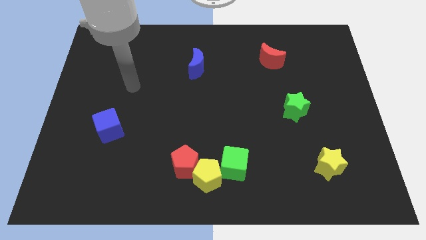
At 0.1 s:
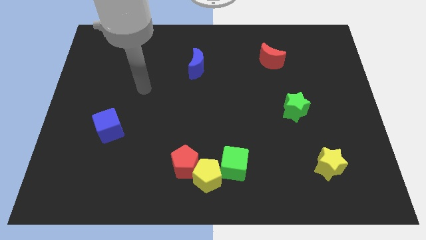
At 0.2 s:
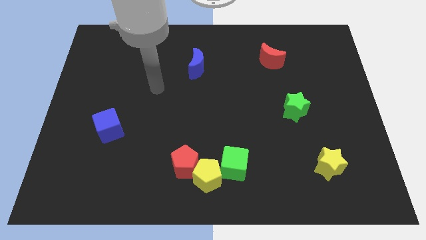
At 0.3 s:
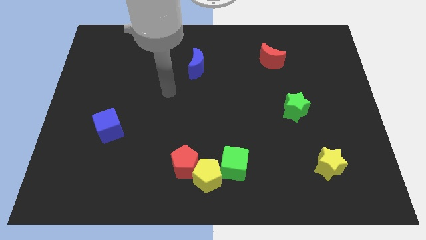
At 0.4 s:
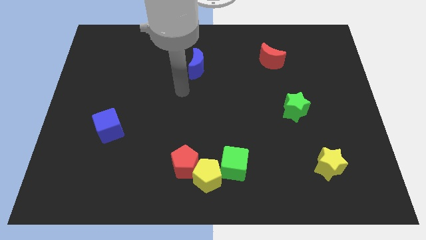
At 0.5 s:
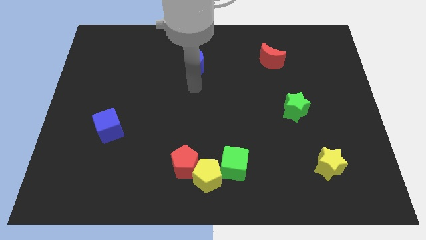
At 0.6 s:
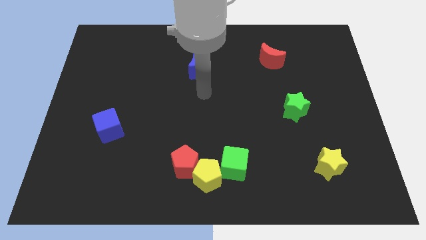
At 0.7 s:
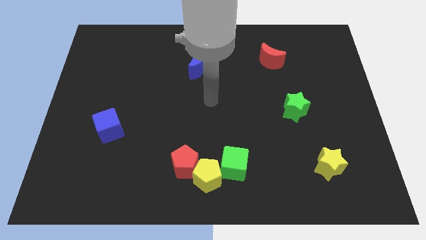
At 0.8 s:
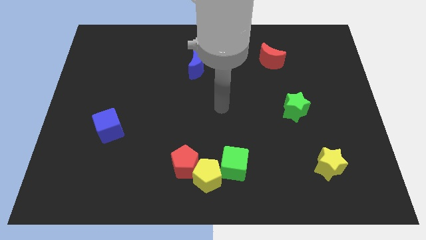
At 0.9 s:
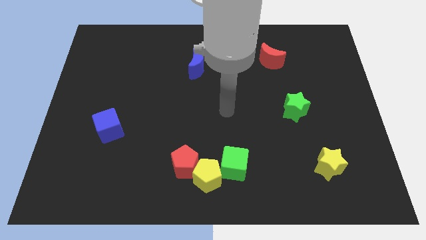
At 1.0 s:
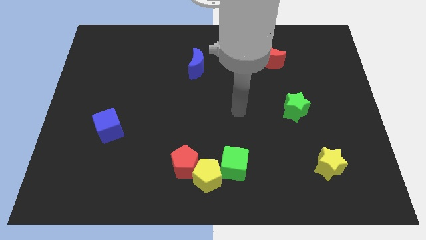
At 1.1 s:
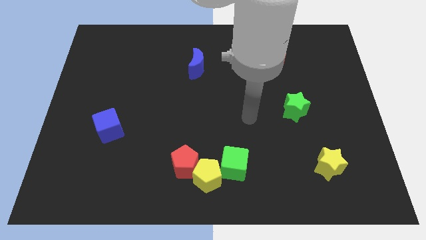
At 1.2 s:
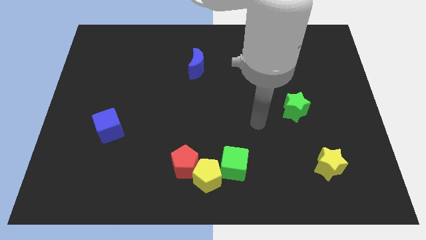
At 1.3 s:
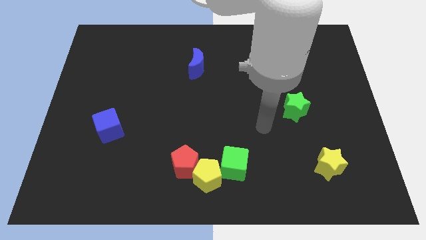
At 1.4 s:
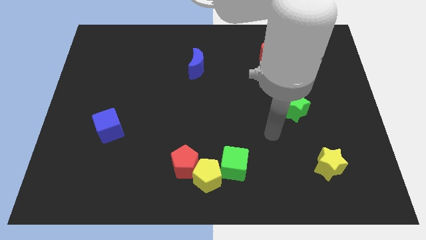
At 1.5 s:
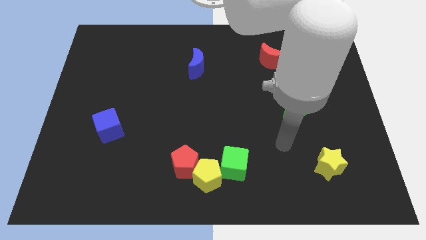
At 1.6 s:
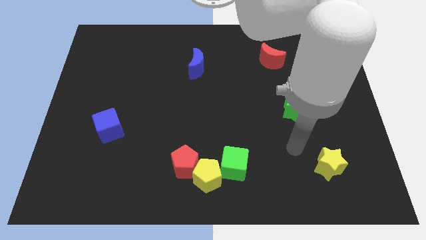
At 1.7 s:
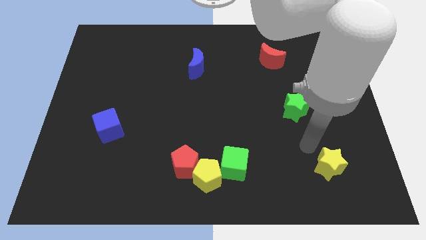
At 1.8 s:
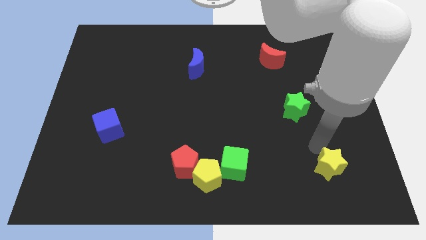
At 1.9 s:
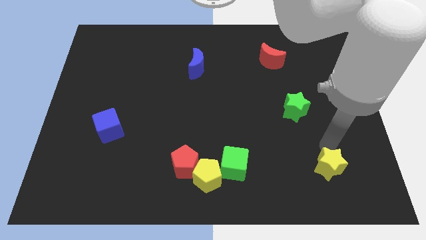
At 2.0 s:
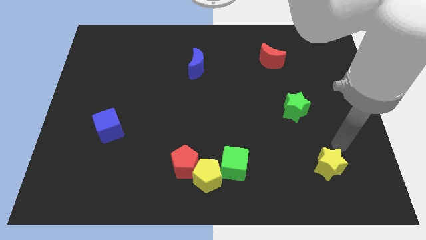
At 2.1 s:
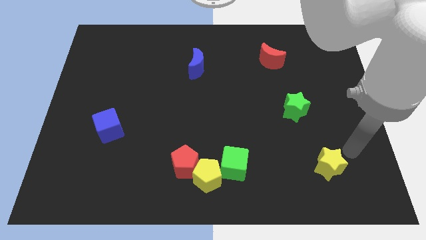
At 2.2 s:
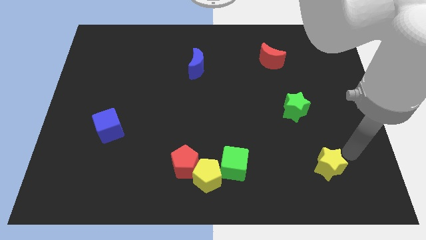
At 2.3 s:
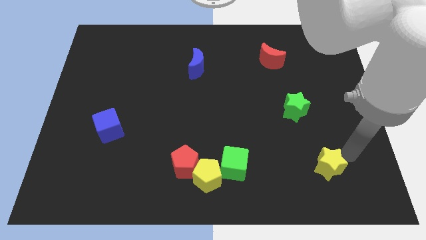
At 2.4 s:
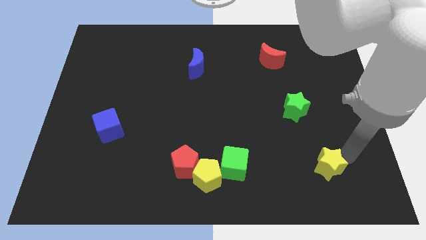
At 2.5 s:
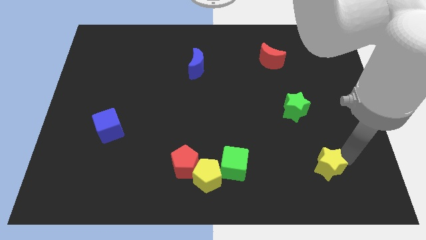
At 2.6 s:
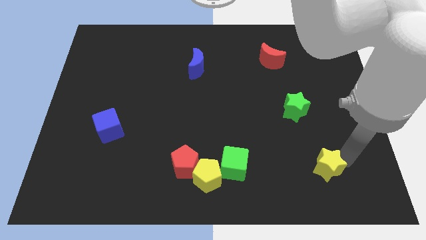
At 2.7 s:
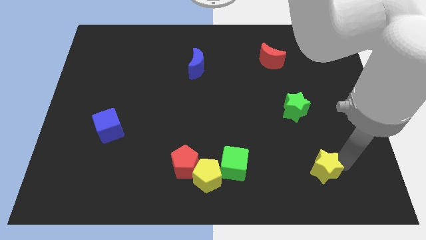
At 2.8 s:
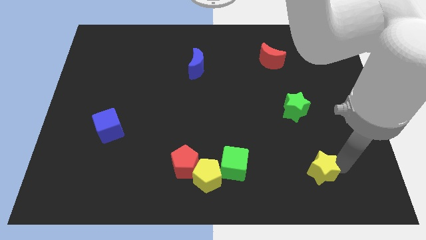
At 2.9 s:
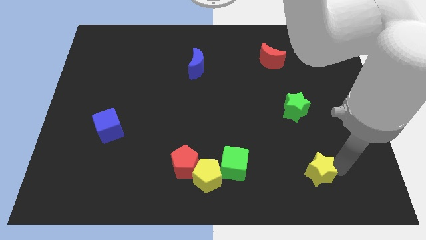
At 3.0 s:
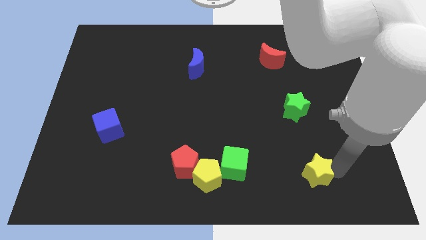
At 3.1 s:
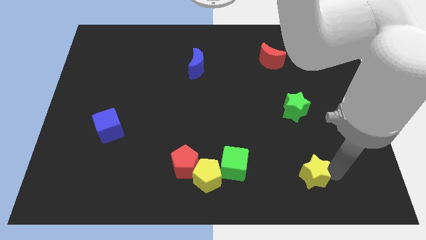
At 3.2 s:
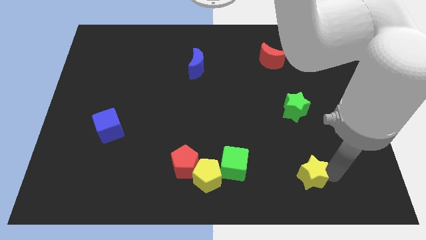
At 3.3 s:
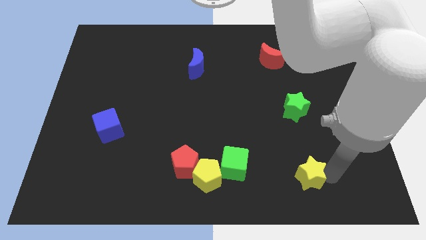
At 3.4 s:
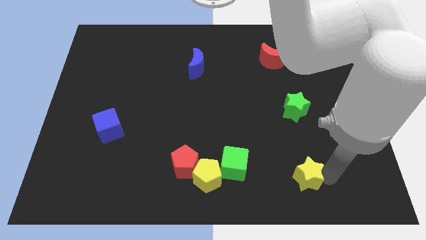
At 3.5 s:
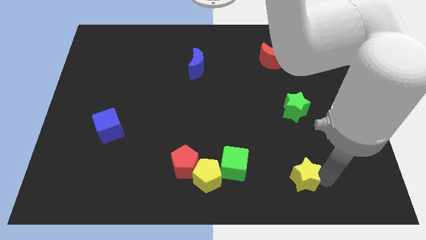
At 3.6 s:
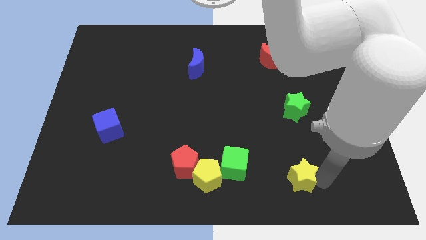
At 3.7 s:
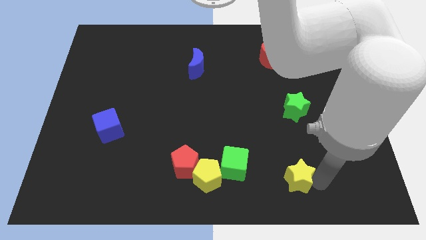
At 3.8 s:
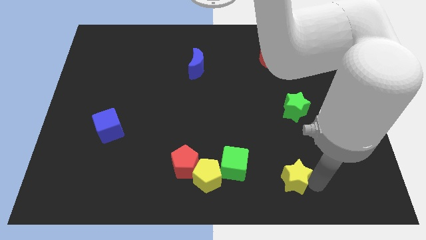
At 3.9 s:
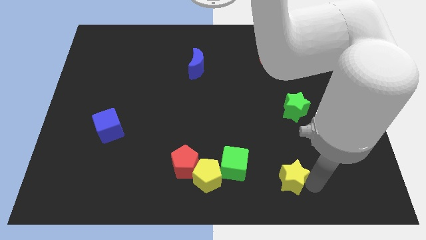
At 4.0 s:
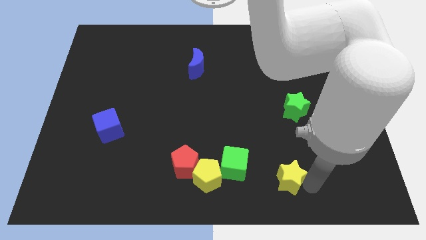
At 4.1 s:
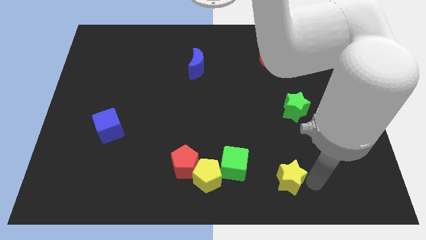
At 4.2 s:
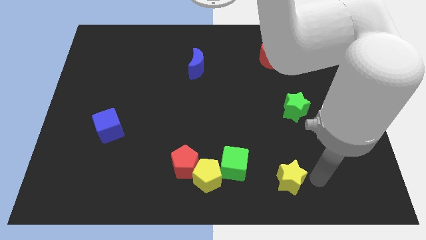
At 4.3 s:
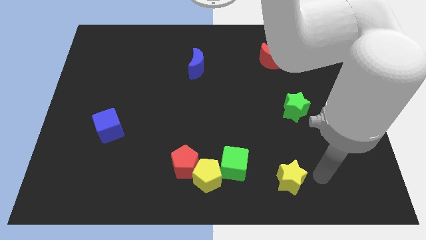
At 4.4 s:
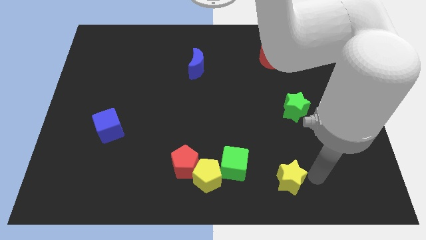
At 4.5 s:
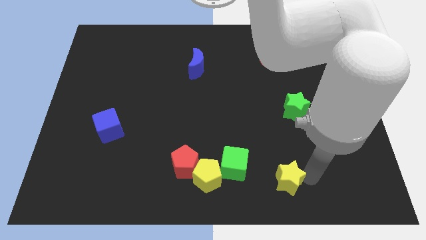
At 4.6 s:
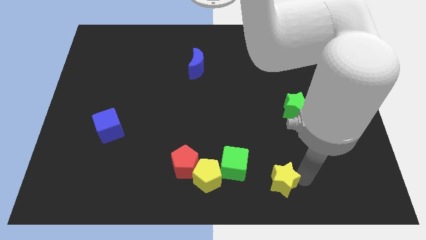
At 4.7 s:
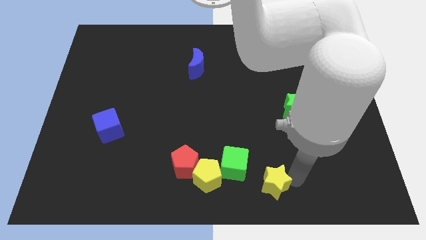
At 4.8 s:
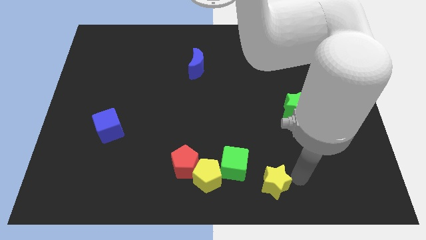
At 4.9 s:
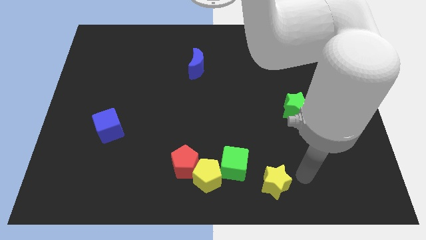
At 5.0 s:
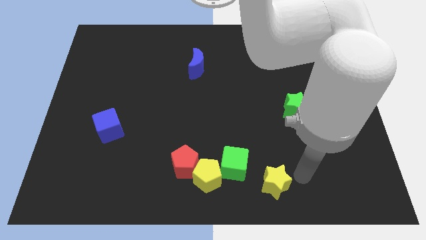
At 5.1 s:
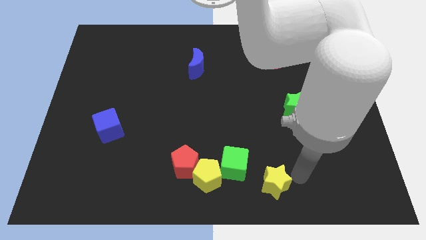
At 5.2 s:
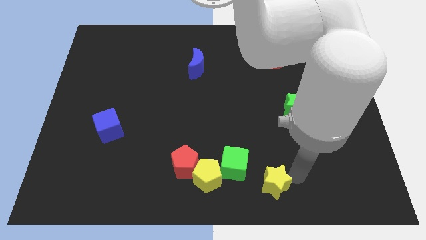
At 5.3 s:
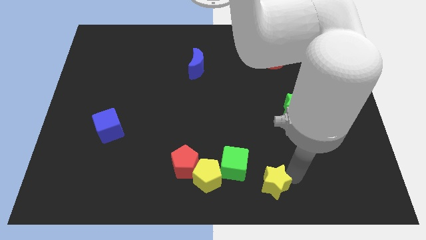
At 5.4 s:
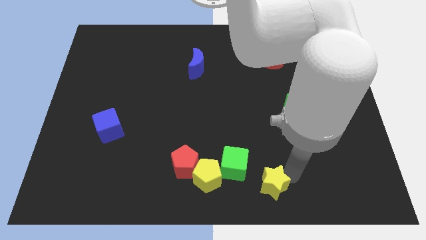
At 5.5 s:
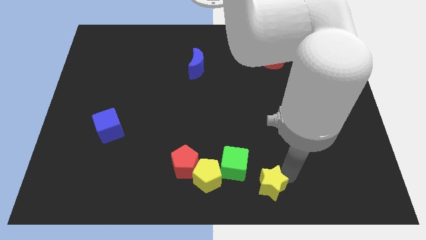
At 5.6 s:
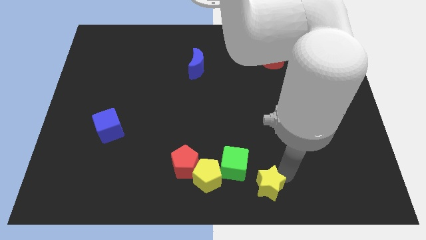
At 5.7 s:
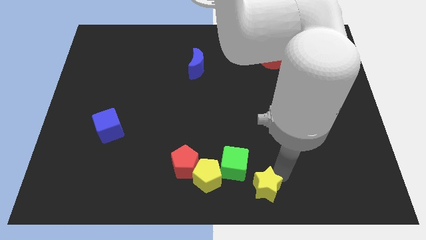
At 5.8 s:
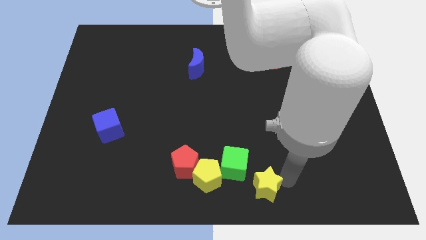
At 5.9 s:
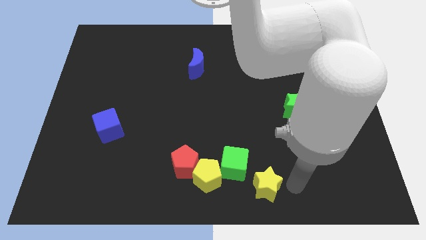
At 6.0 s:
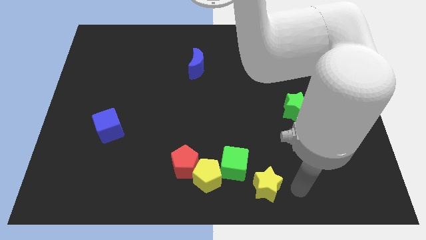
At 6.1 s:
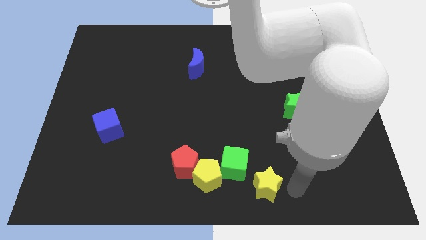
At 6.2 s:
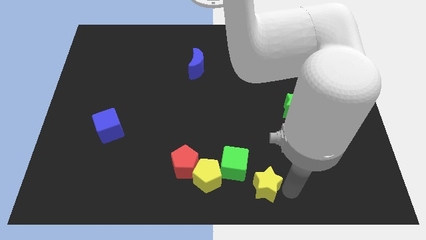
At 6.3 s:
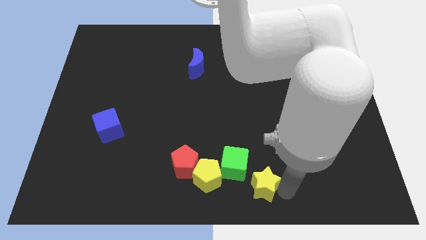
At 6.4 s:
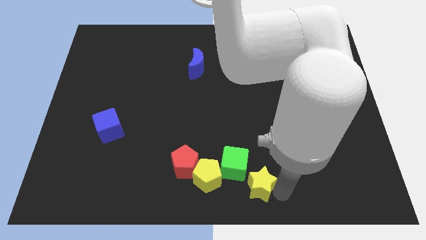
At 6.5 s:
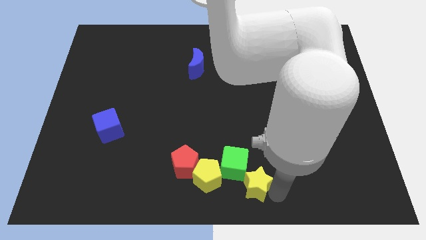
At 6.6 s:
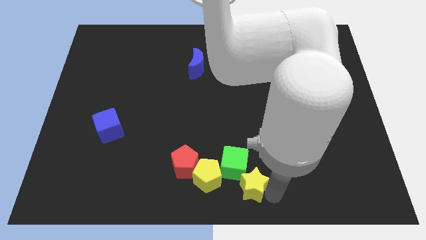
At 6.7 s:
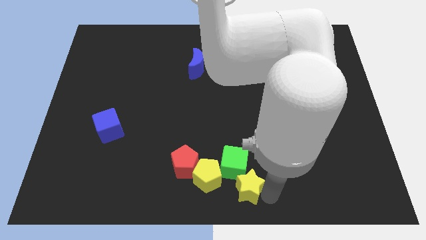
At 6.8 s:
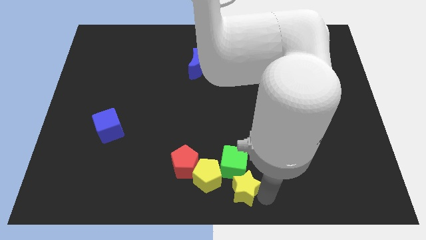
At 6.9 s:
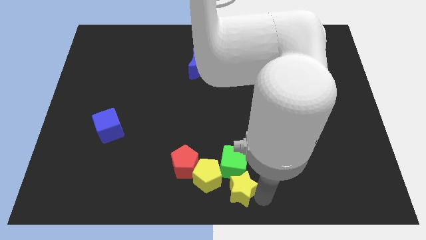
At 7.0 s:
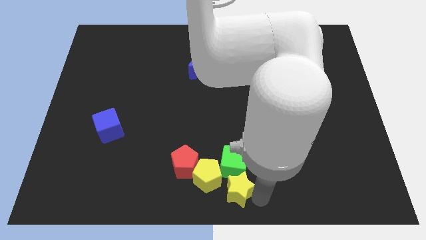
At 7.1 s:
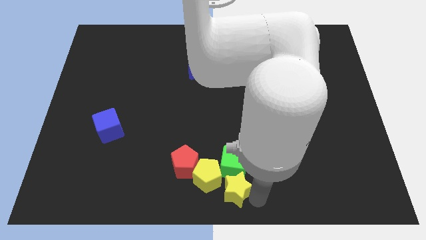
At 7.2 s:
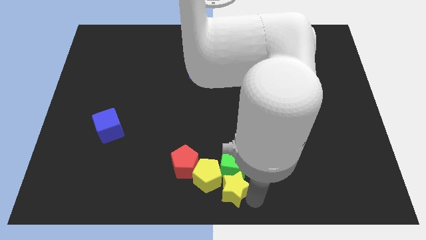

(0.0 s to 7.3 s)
slide the yellow star next to the yellow pentagon
